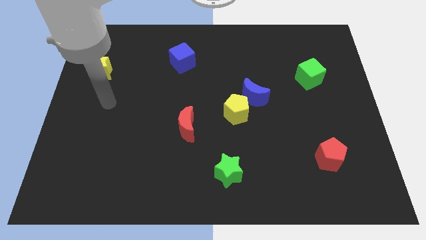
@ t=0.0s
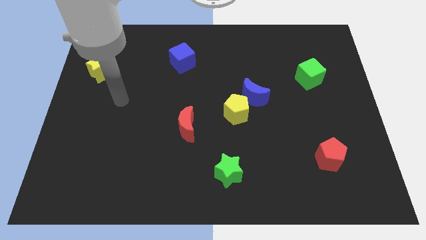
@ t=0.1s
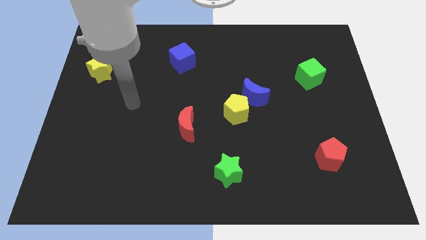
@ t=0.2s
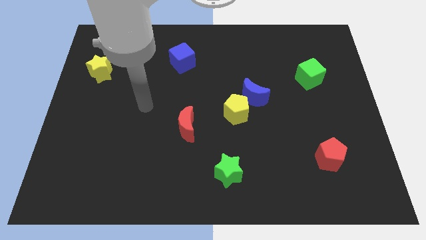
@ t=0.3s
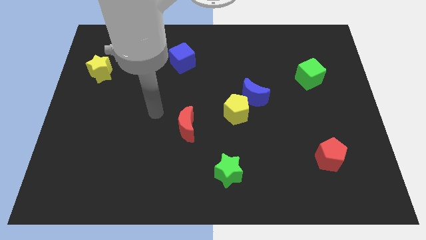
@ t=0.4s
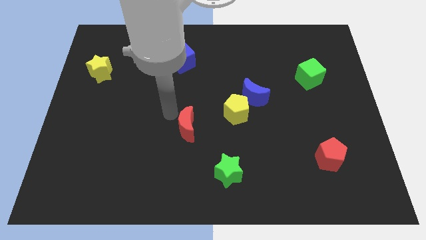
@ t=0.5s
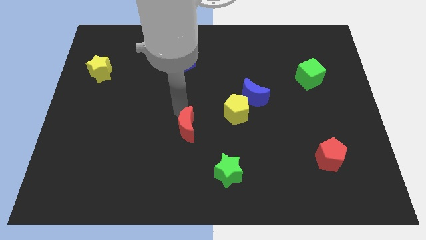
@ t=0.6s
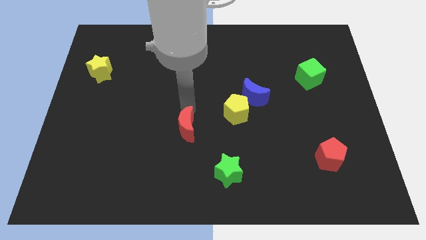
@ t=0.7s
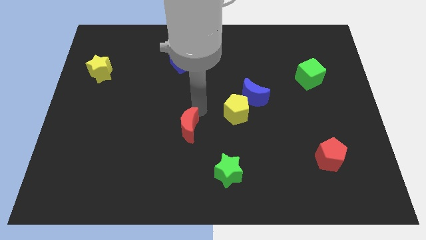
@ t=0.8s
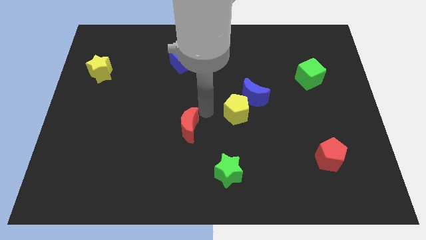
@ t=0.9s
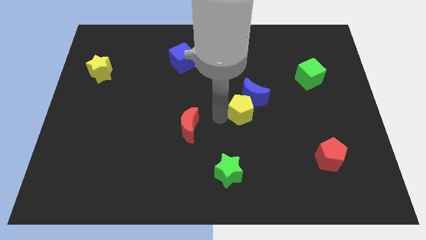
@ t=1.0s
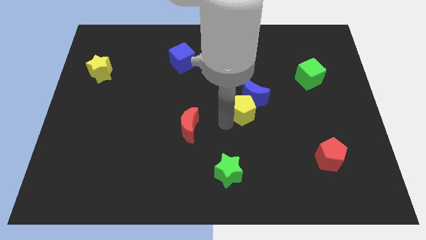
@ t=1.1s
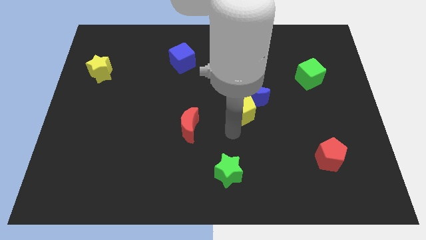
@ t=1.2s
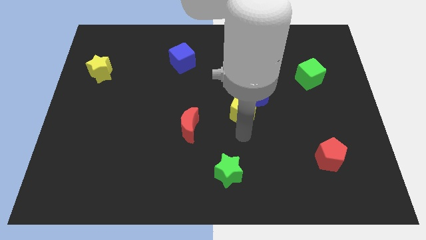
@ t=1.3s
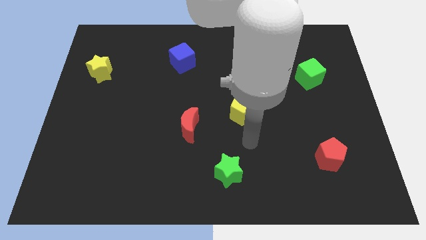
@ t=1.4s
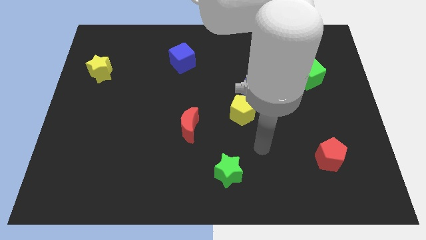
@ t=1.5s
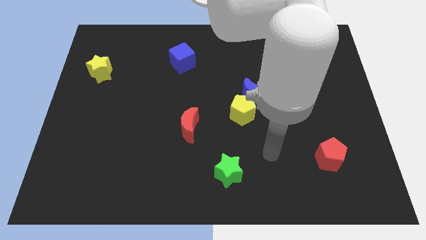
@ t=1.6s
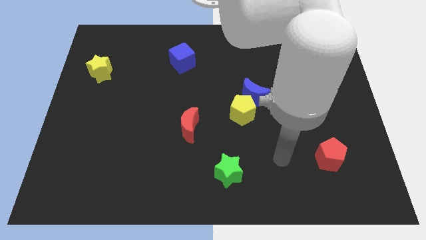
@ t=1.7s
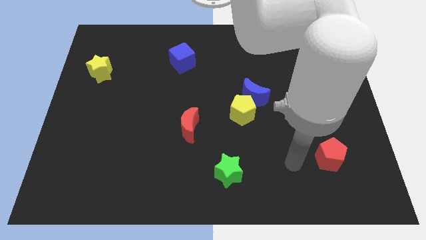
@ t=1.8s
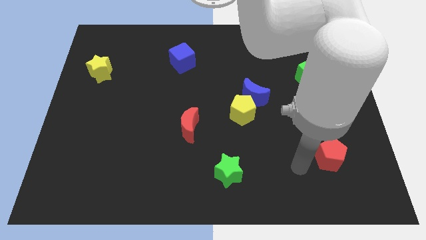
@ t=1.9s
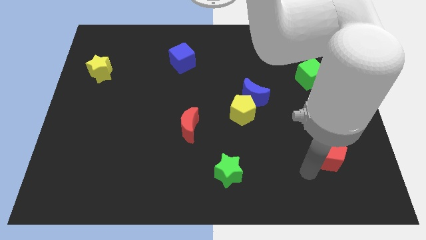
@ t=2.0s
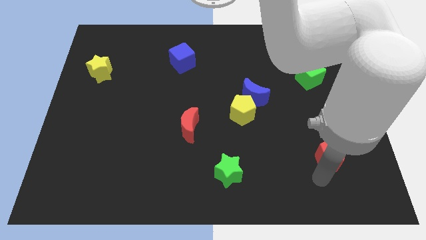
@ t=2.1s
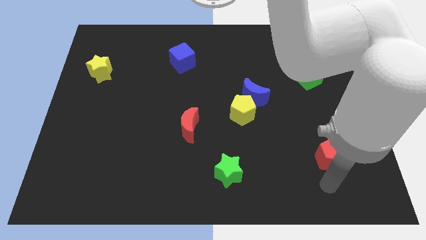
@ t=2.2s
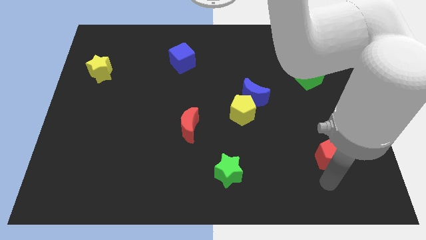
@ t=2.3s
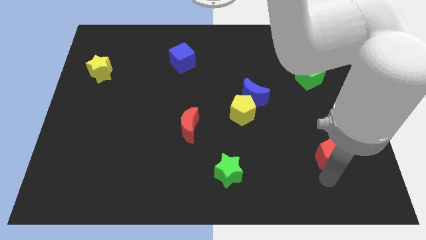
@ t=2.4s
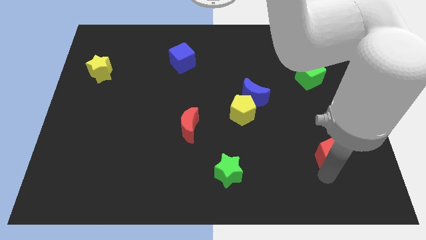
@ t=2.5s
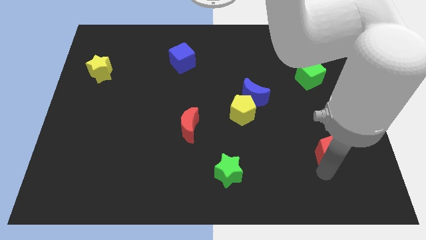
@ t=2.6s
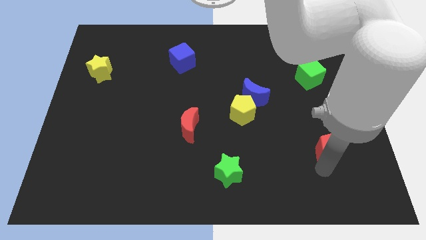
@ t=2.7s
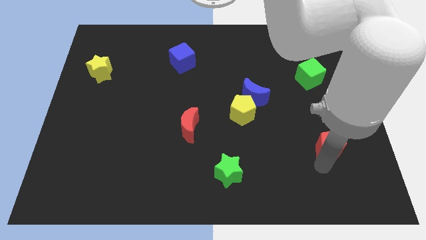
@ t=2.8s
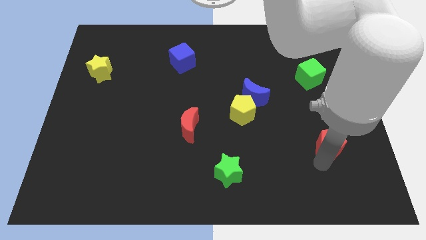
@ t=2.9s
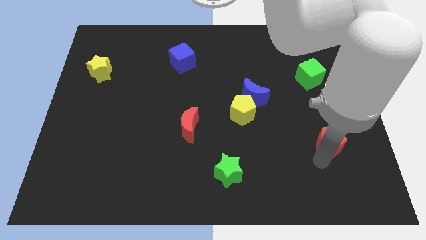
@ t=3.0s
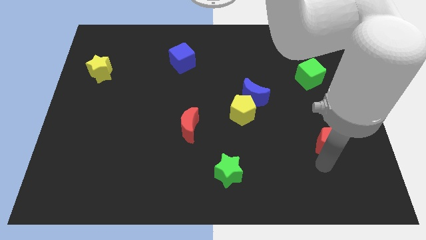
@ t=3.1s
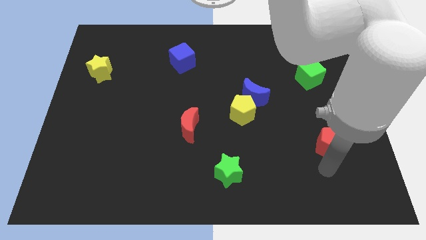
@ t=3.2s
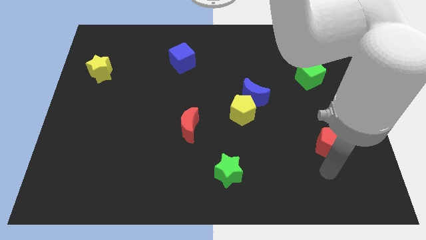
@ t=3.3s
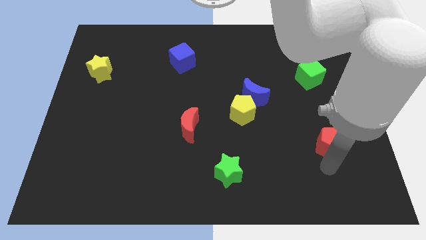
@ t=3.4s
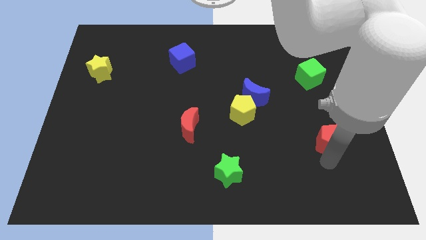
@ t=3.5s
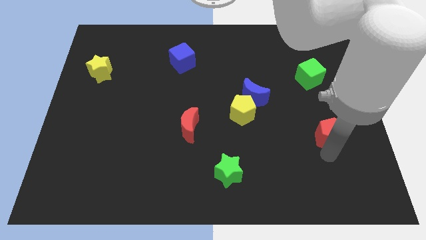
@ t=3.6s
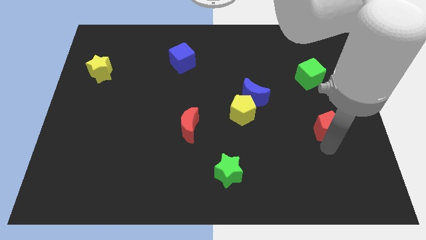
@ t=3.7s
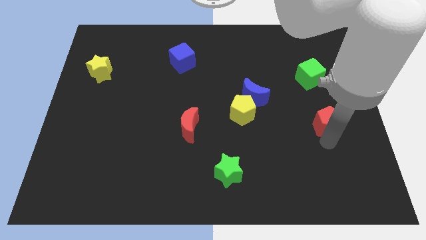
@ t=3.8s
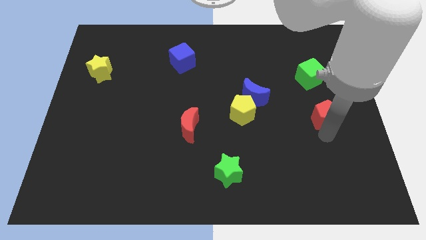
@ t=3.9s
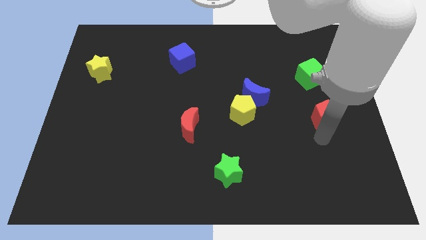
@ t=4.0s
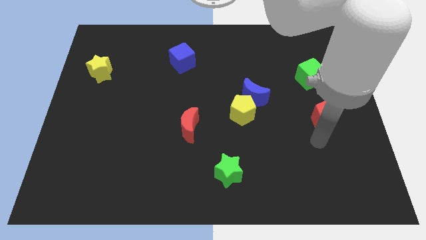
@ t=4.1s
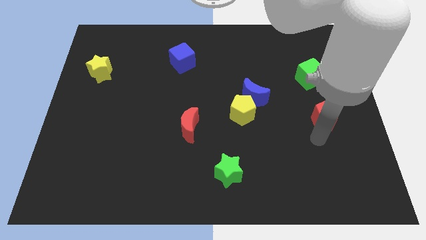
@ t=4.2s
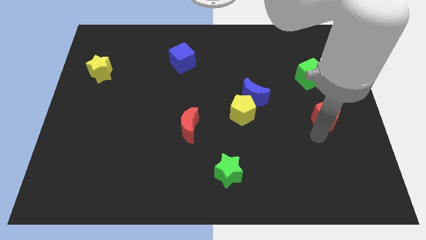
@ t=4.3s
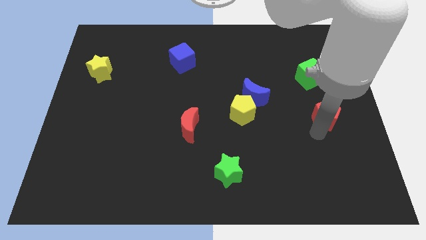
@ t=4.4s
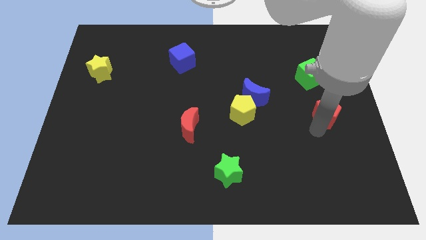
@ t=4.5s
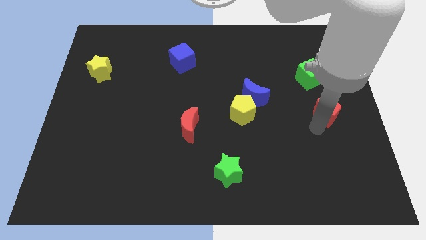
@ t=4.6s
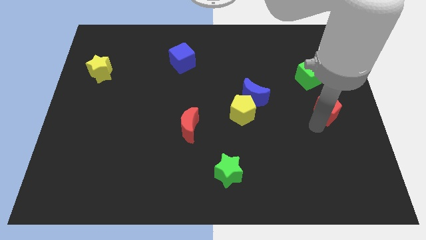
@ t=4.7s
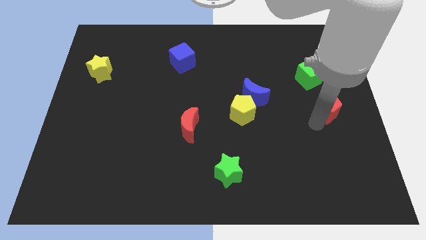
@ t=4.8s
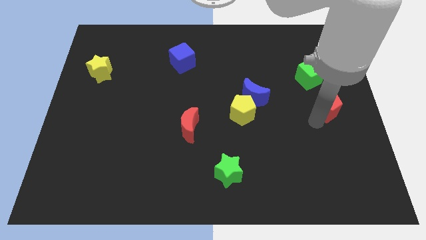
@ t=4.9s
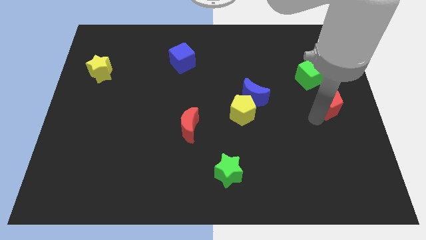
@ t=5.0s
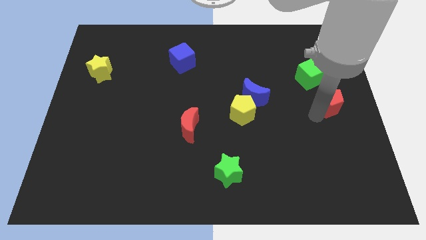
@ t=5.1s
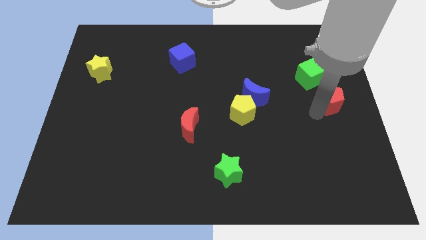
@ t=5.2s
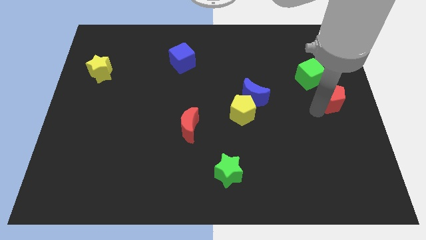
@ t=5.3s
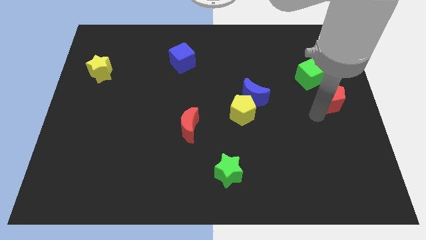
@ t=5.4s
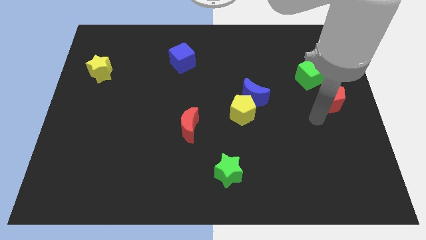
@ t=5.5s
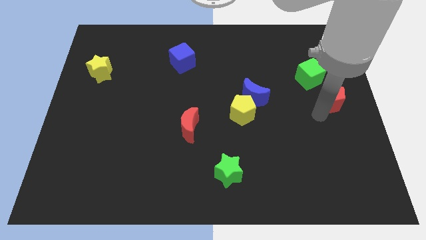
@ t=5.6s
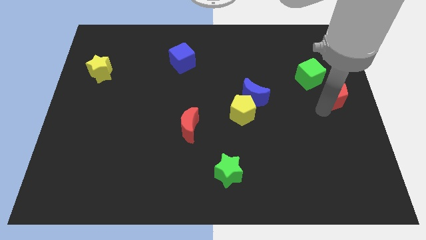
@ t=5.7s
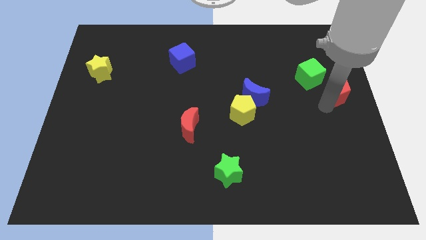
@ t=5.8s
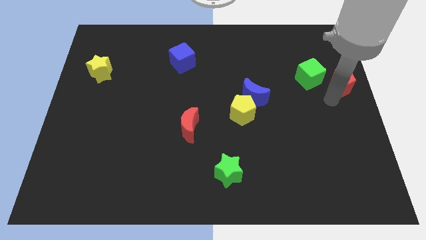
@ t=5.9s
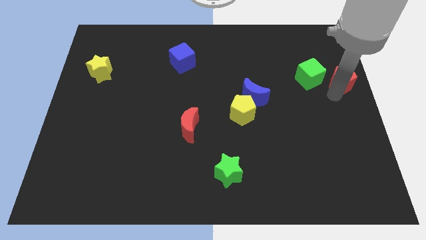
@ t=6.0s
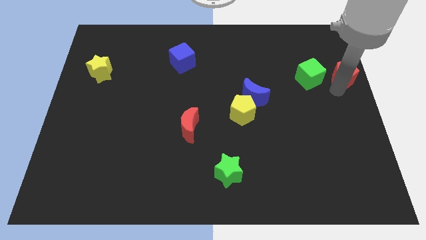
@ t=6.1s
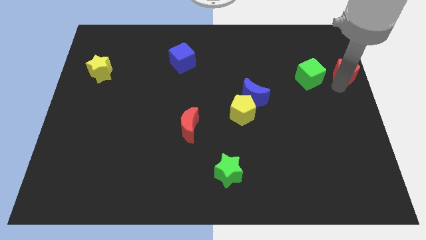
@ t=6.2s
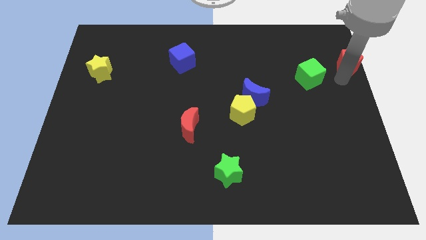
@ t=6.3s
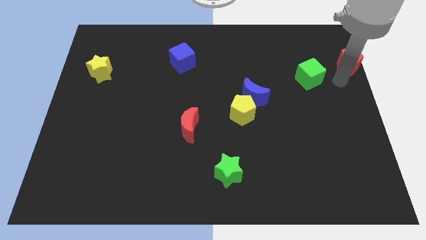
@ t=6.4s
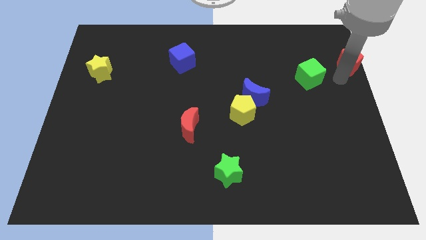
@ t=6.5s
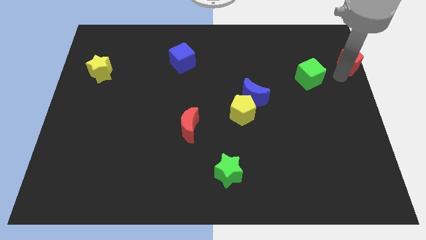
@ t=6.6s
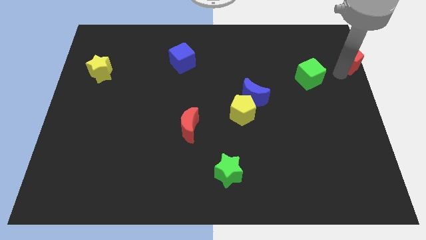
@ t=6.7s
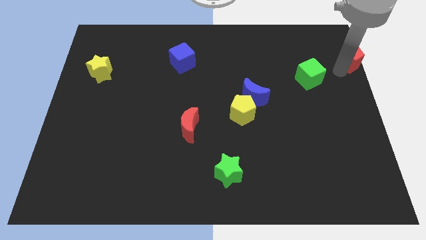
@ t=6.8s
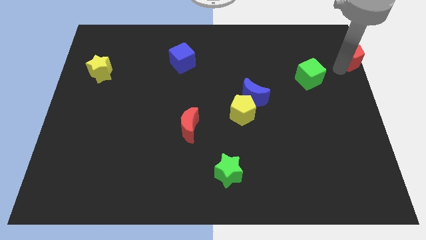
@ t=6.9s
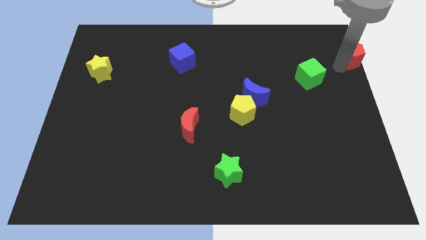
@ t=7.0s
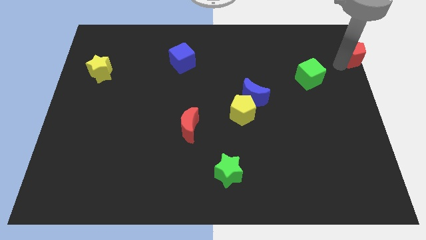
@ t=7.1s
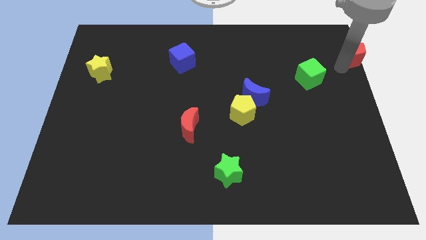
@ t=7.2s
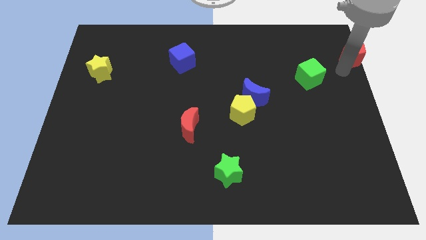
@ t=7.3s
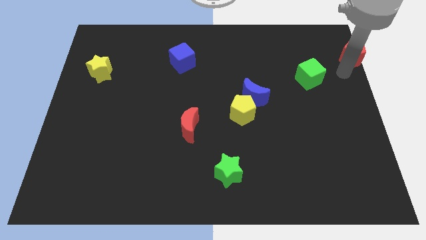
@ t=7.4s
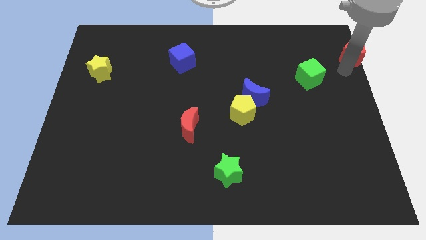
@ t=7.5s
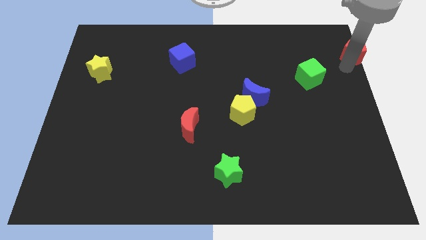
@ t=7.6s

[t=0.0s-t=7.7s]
put the red pentagon to the top right corner
